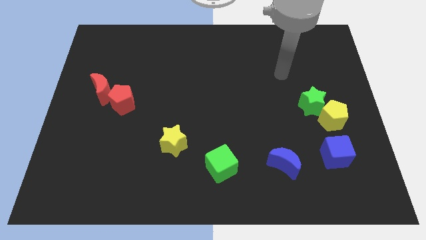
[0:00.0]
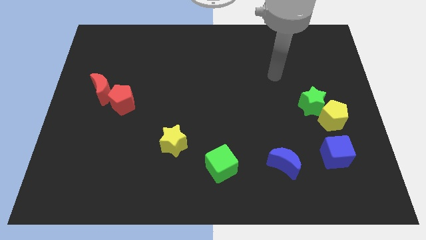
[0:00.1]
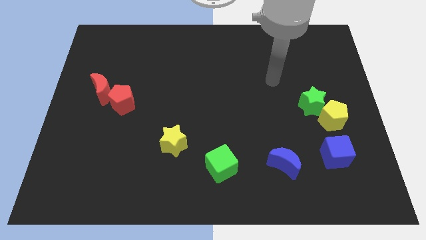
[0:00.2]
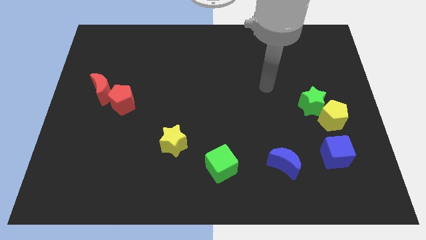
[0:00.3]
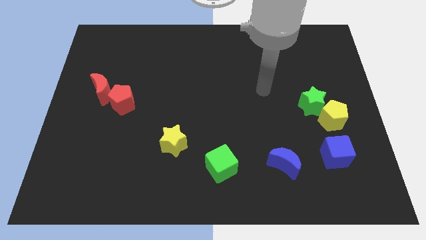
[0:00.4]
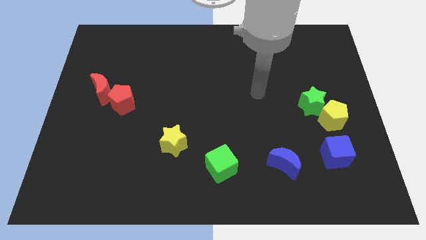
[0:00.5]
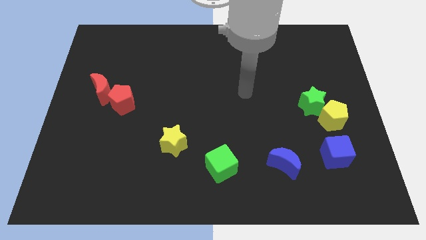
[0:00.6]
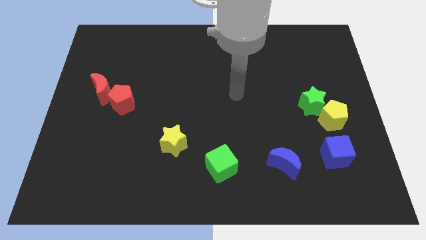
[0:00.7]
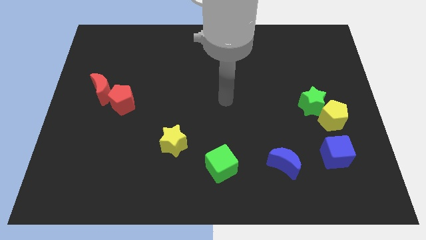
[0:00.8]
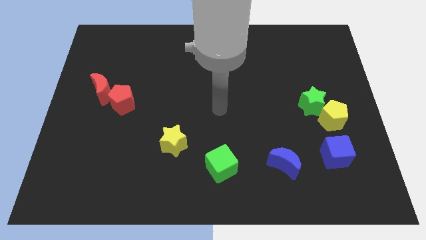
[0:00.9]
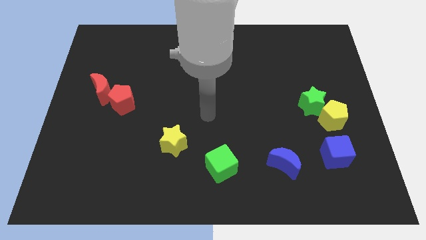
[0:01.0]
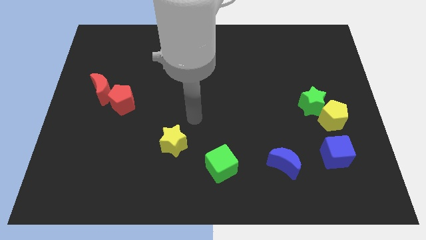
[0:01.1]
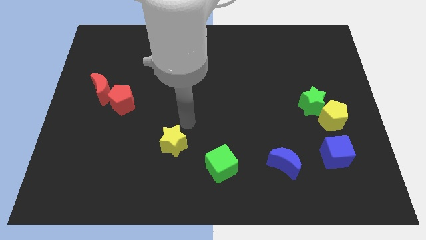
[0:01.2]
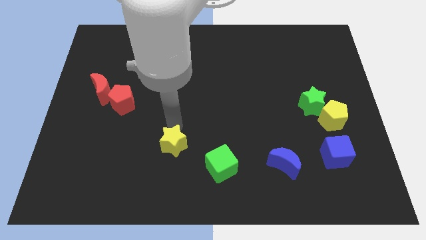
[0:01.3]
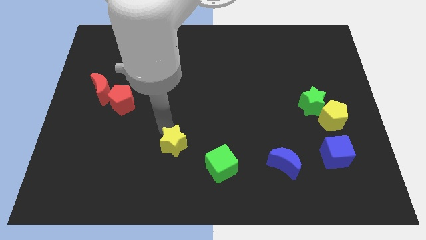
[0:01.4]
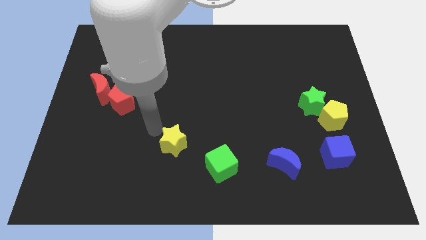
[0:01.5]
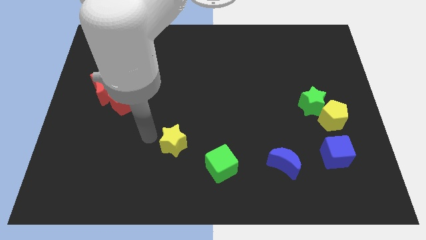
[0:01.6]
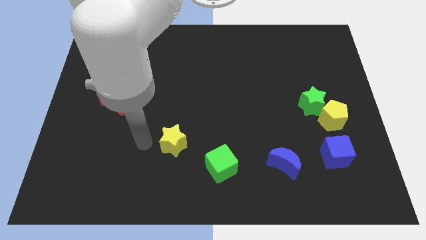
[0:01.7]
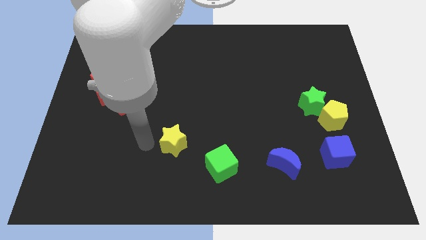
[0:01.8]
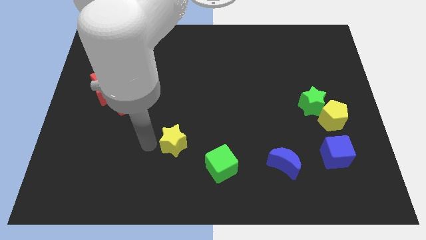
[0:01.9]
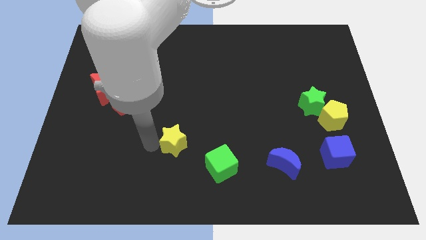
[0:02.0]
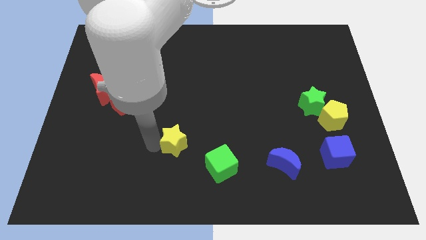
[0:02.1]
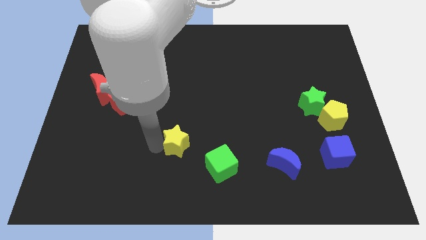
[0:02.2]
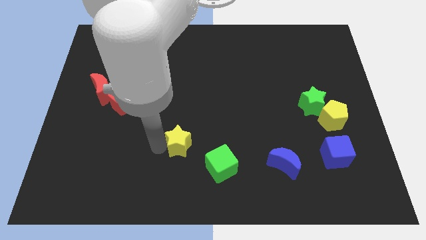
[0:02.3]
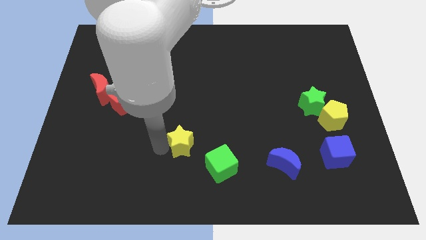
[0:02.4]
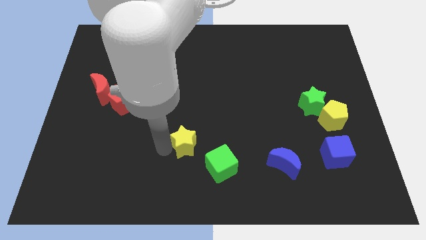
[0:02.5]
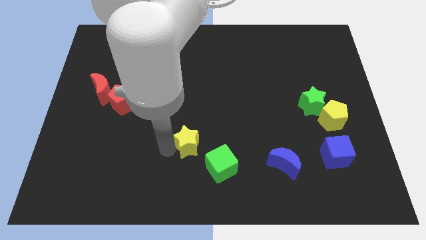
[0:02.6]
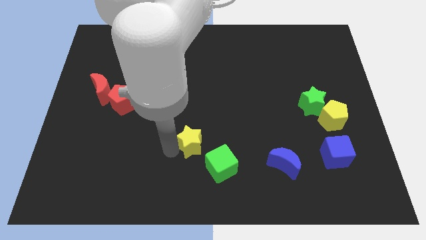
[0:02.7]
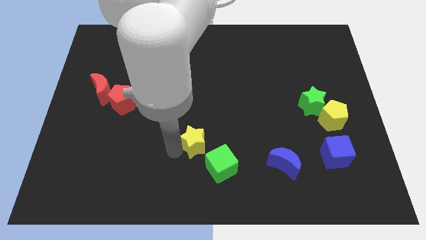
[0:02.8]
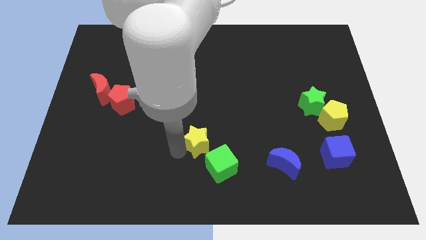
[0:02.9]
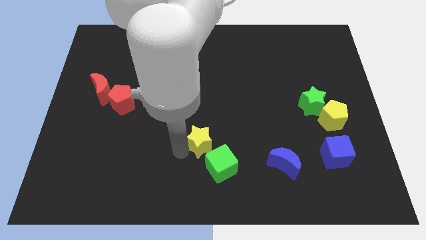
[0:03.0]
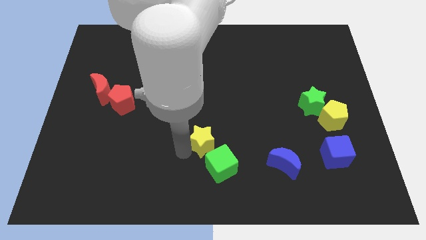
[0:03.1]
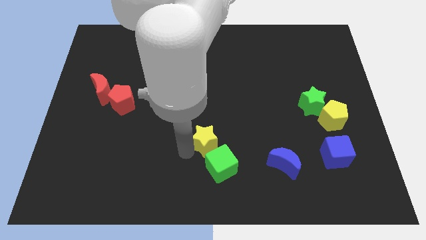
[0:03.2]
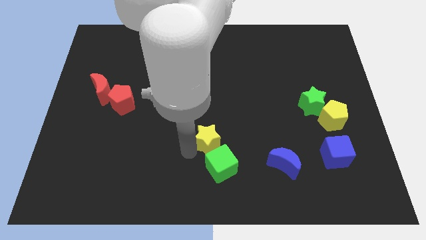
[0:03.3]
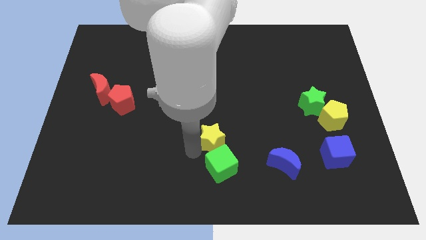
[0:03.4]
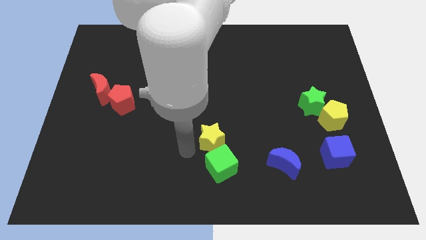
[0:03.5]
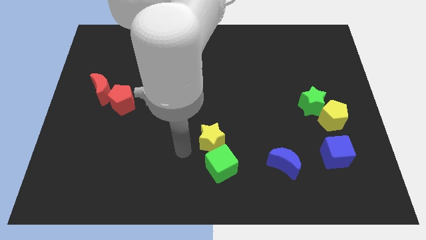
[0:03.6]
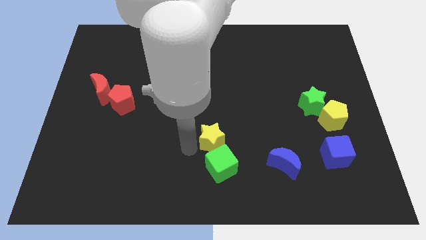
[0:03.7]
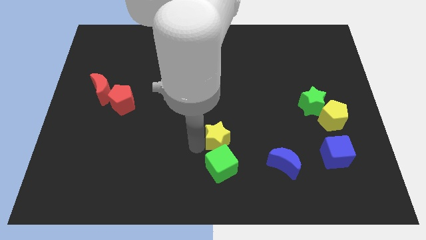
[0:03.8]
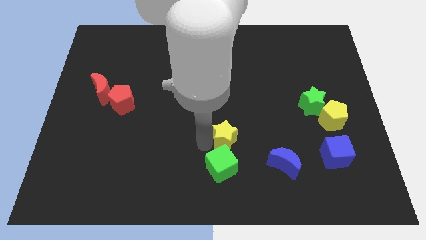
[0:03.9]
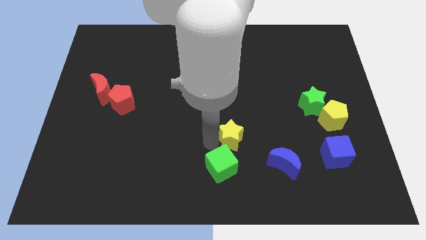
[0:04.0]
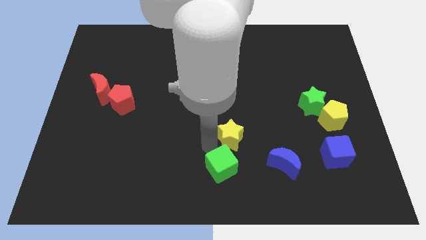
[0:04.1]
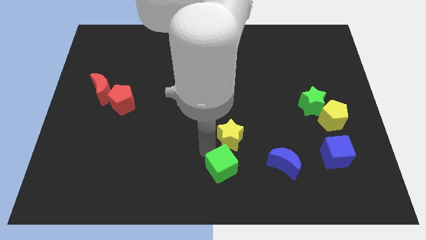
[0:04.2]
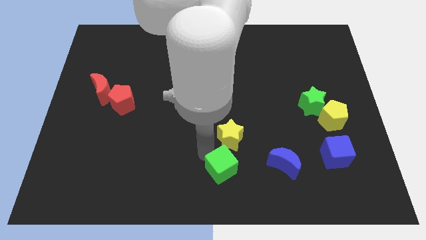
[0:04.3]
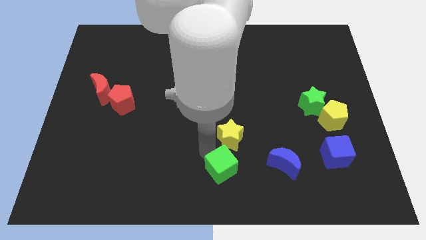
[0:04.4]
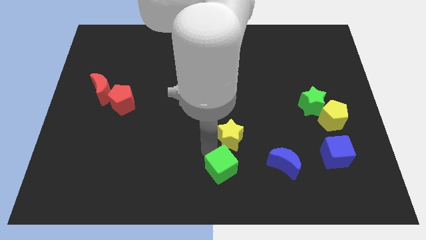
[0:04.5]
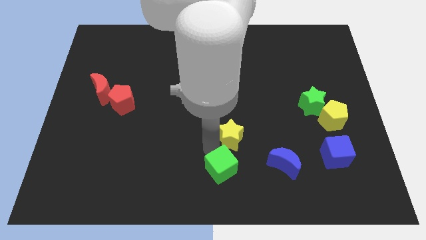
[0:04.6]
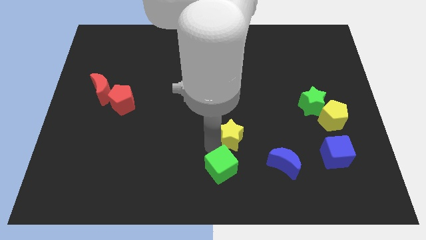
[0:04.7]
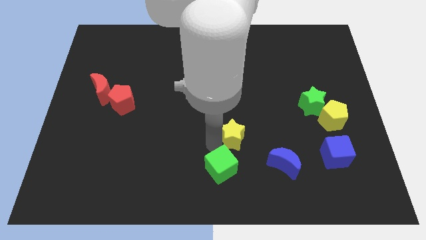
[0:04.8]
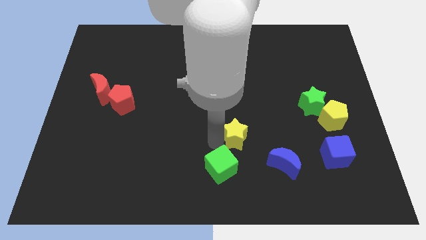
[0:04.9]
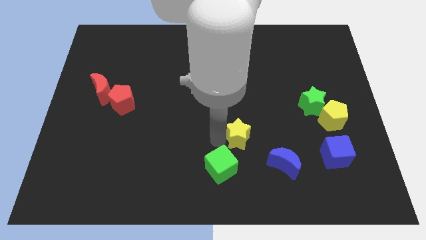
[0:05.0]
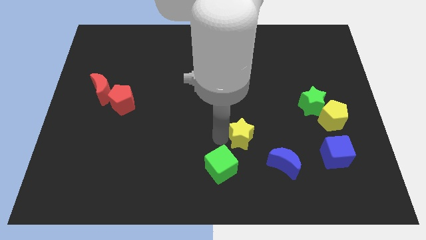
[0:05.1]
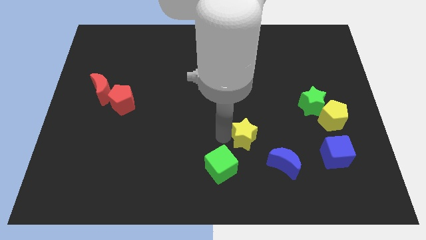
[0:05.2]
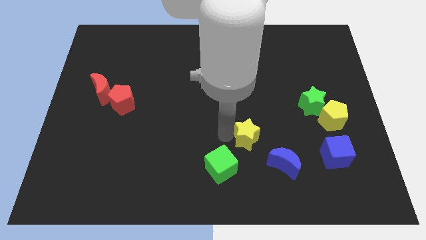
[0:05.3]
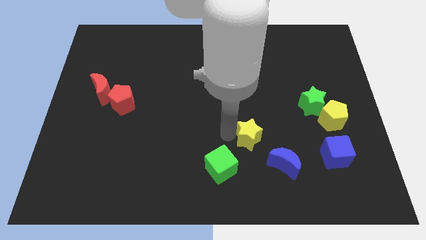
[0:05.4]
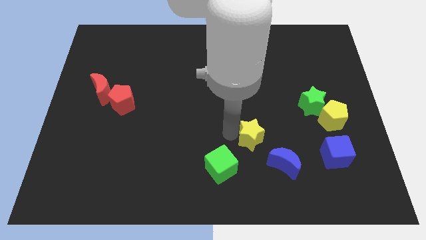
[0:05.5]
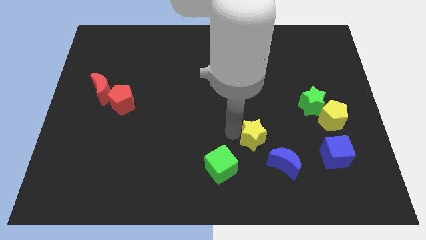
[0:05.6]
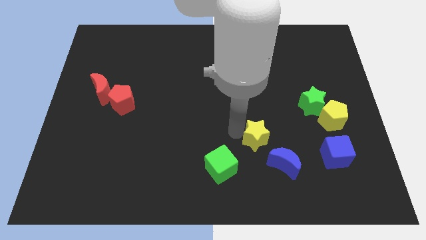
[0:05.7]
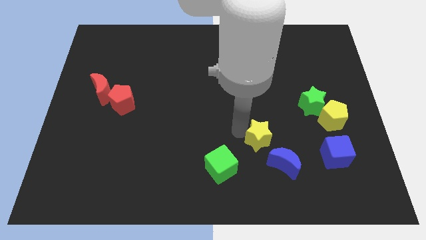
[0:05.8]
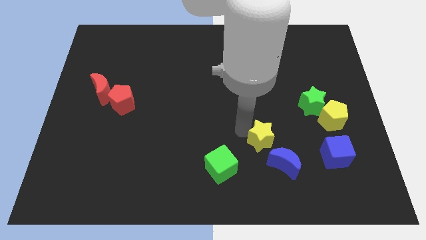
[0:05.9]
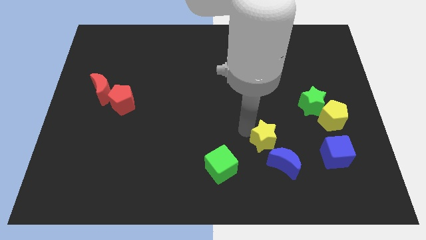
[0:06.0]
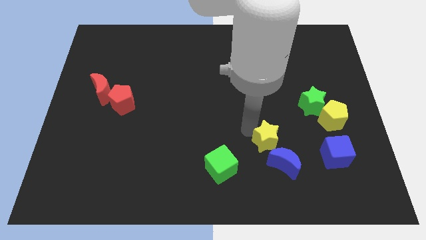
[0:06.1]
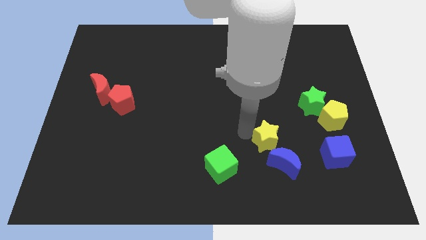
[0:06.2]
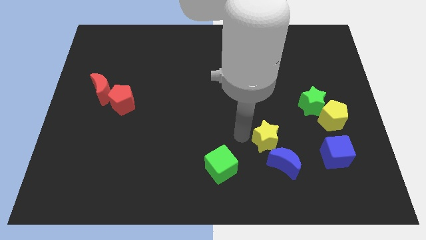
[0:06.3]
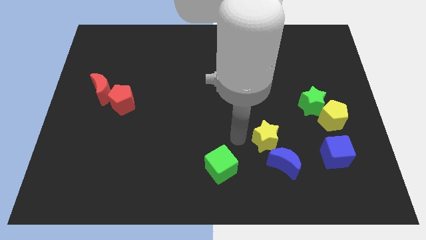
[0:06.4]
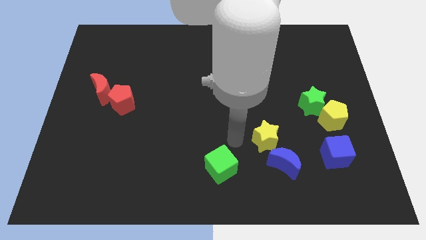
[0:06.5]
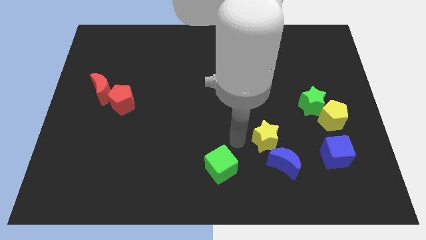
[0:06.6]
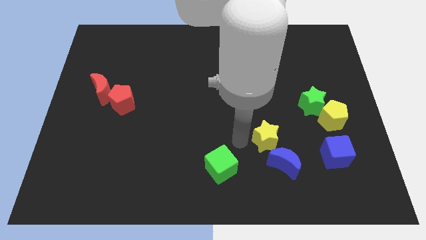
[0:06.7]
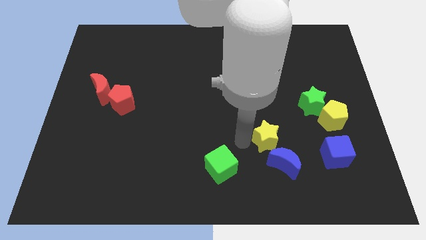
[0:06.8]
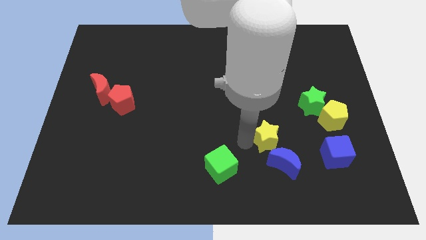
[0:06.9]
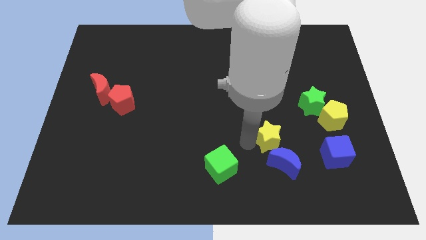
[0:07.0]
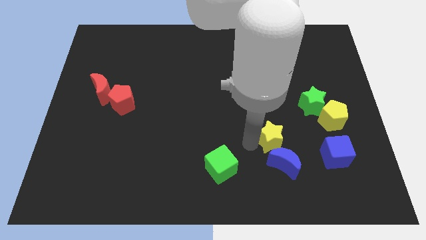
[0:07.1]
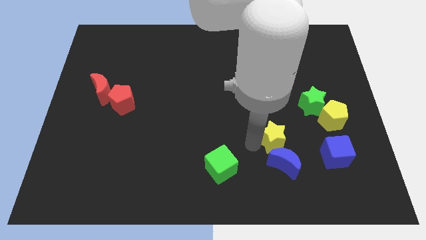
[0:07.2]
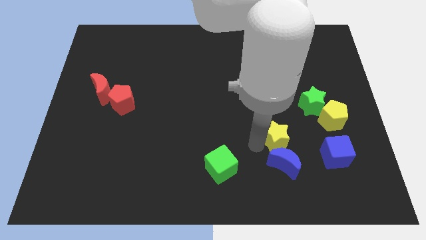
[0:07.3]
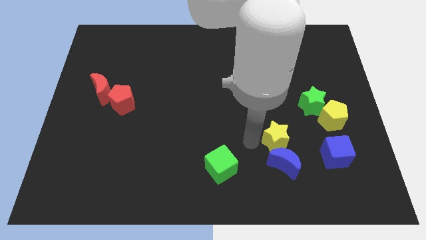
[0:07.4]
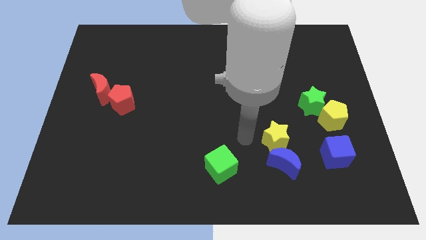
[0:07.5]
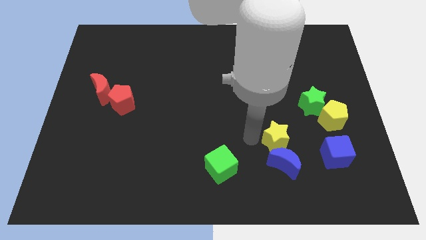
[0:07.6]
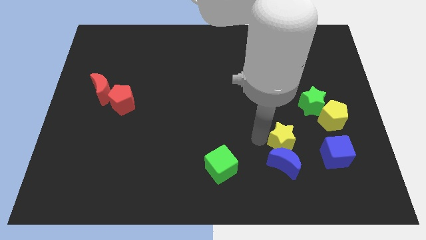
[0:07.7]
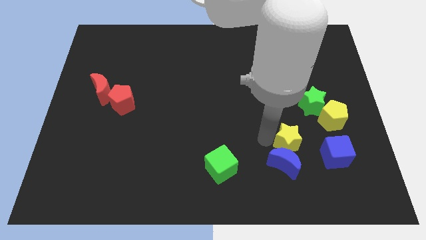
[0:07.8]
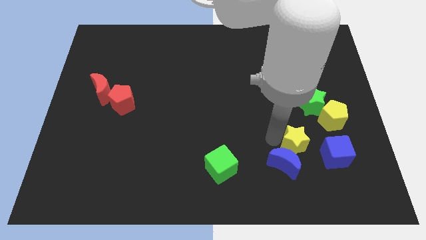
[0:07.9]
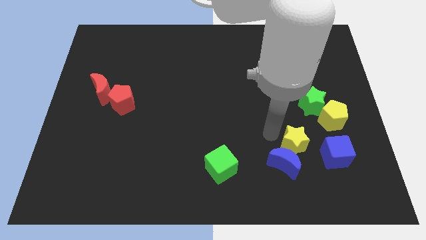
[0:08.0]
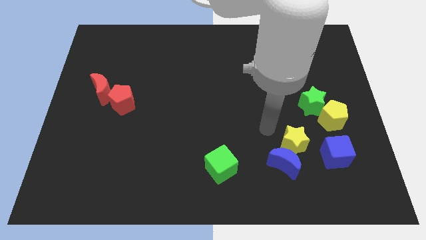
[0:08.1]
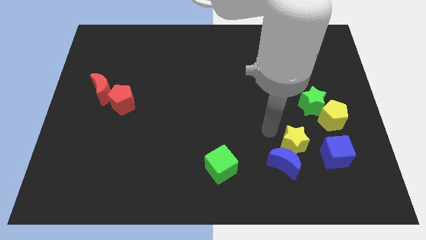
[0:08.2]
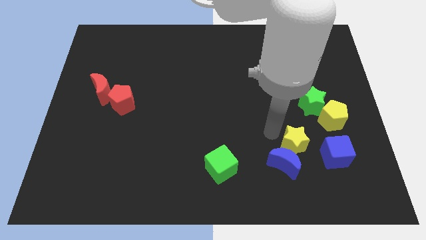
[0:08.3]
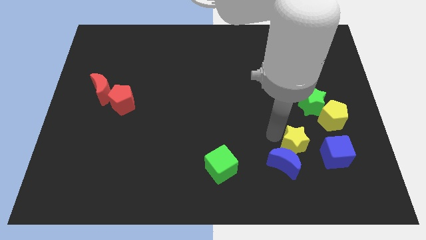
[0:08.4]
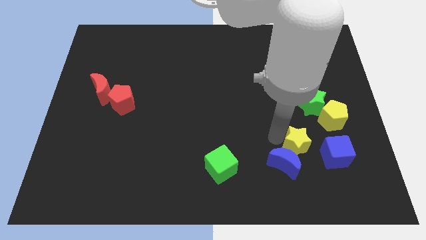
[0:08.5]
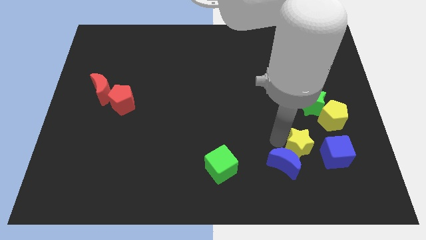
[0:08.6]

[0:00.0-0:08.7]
move the yellow star just right of the blue moon
